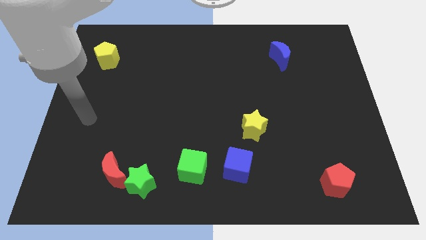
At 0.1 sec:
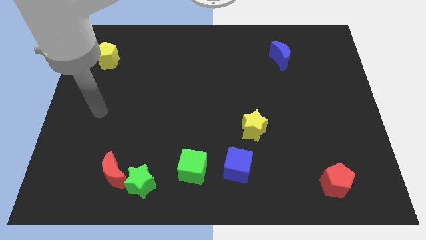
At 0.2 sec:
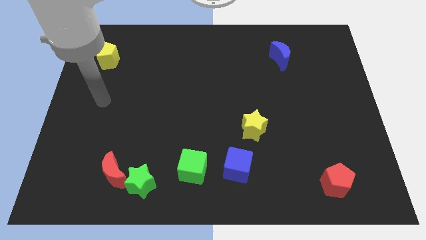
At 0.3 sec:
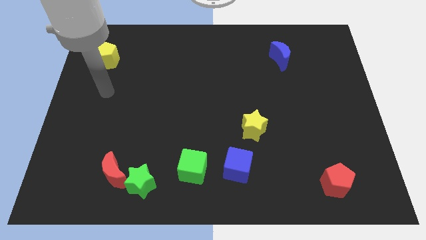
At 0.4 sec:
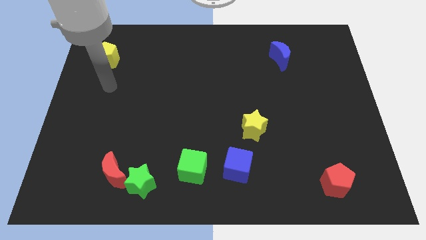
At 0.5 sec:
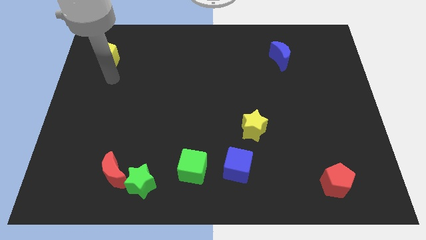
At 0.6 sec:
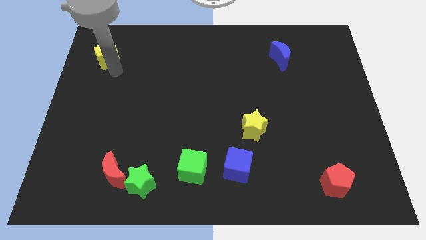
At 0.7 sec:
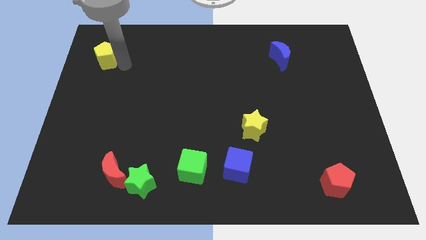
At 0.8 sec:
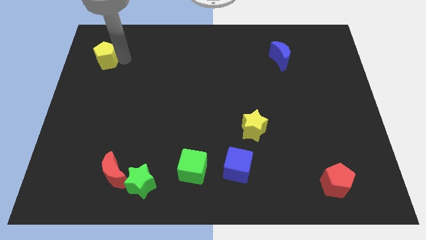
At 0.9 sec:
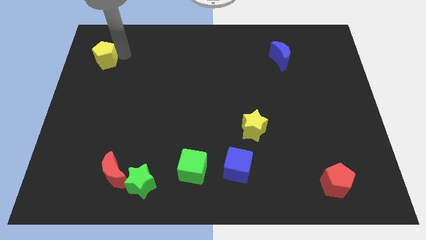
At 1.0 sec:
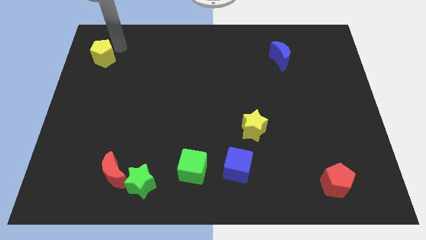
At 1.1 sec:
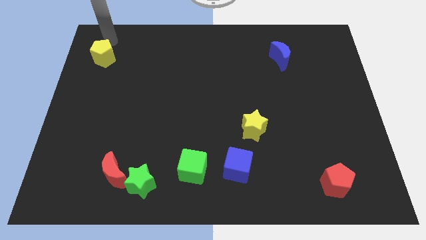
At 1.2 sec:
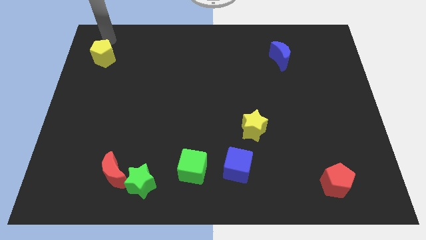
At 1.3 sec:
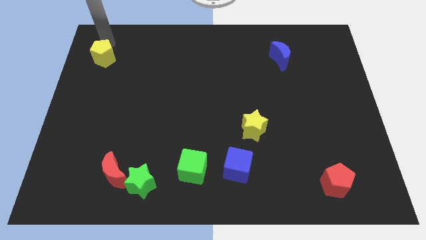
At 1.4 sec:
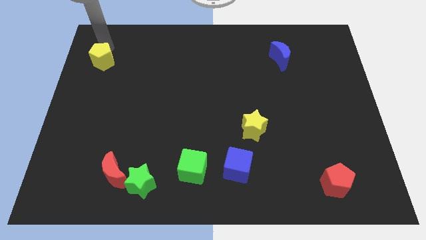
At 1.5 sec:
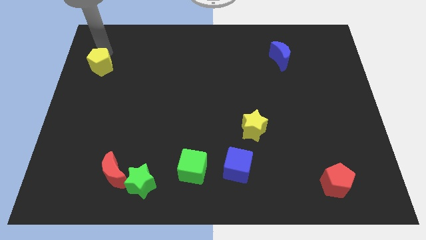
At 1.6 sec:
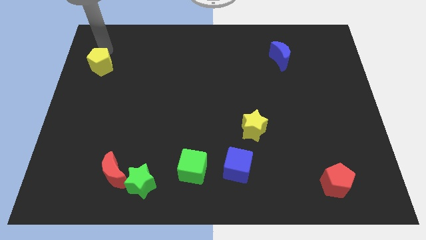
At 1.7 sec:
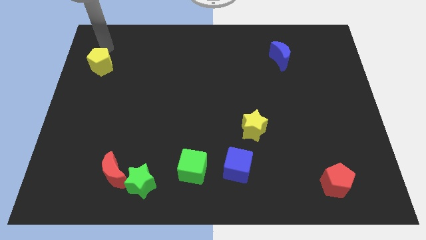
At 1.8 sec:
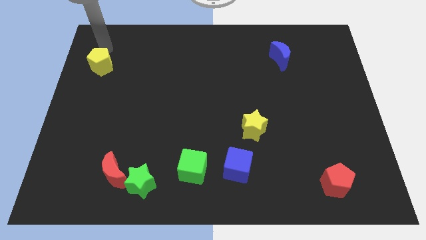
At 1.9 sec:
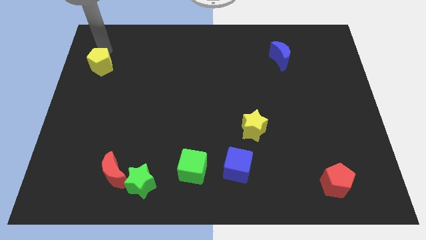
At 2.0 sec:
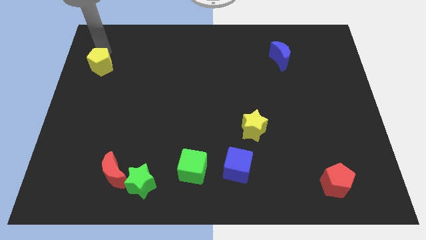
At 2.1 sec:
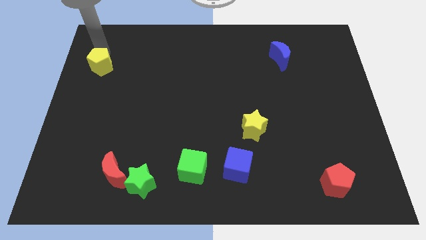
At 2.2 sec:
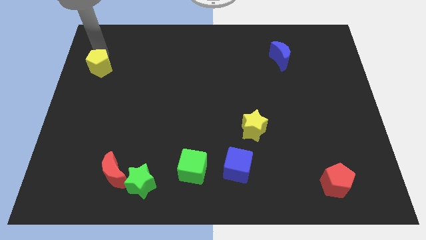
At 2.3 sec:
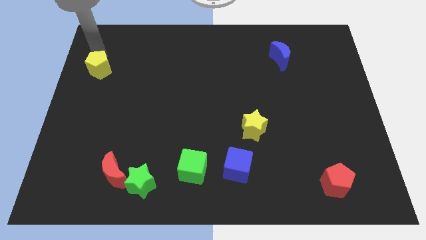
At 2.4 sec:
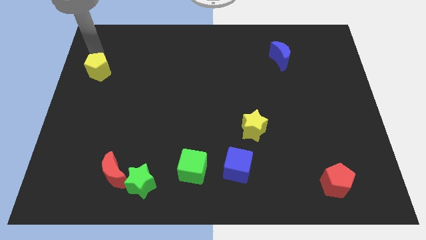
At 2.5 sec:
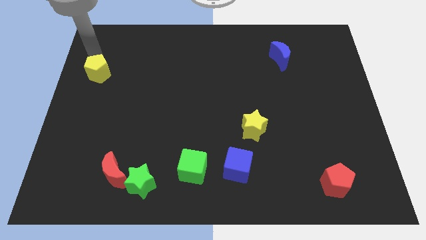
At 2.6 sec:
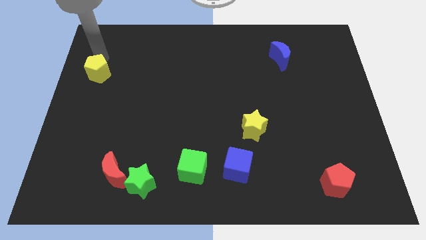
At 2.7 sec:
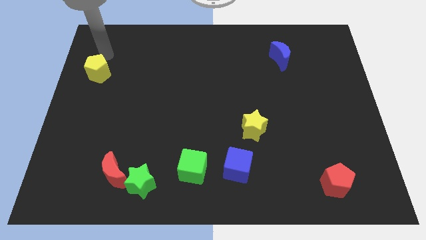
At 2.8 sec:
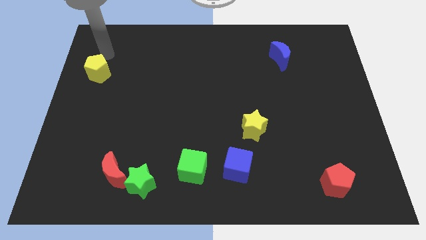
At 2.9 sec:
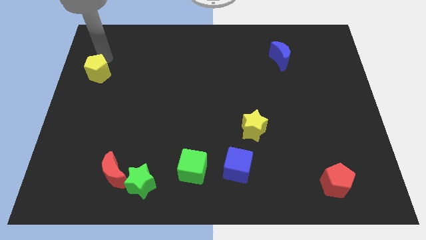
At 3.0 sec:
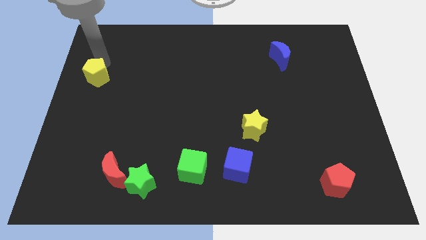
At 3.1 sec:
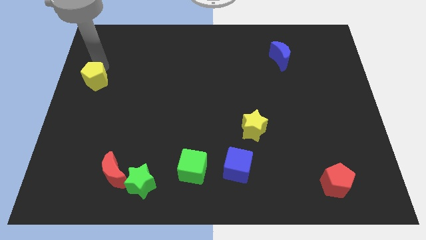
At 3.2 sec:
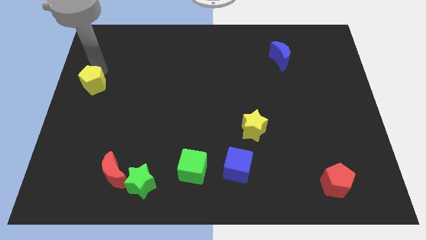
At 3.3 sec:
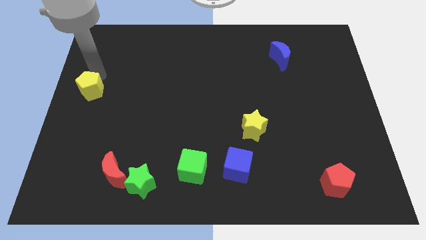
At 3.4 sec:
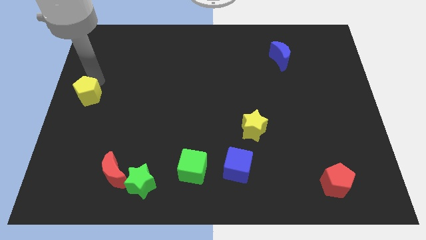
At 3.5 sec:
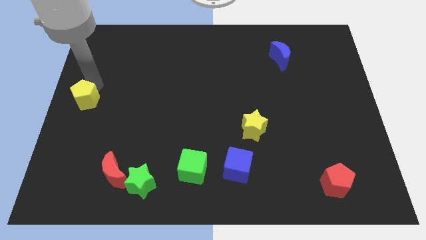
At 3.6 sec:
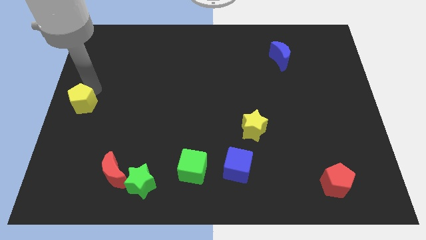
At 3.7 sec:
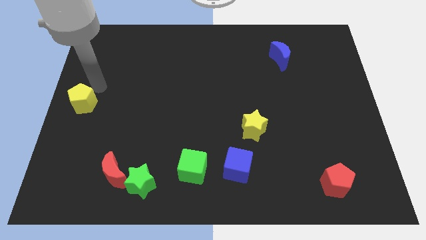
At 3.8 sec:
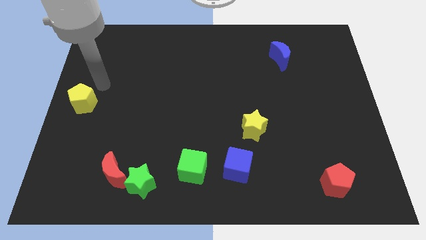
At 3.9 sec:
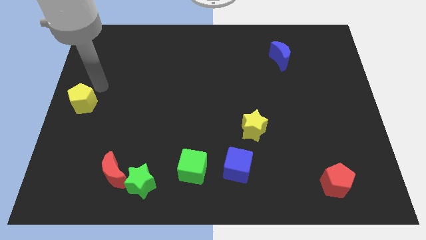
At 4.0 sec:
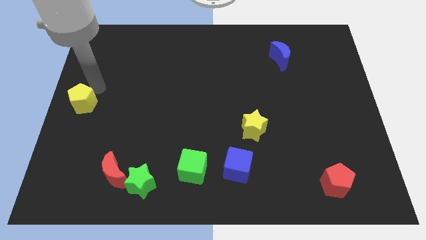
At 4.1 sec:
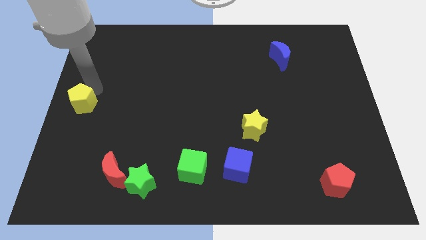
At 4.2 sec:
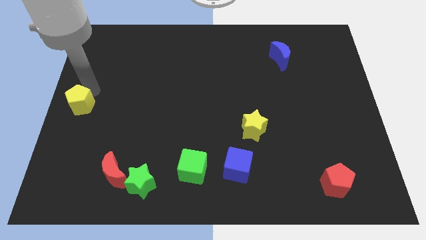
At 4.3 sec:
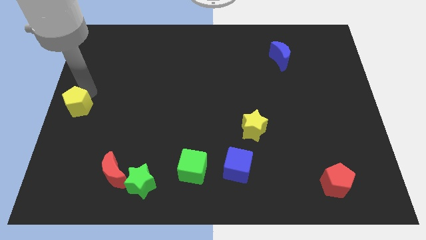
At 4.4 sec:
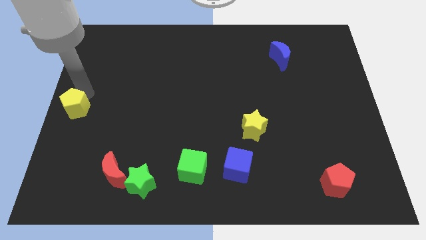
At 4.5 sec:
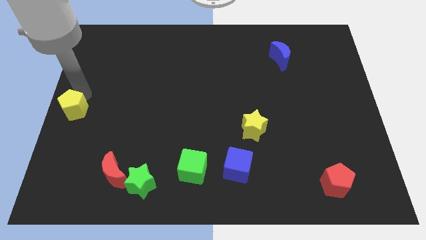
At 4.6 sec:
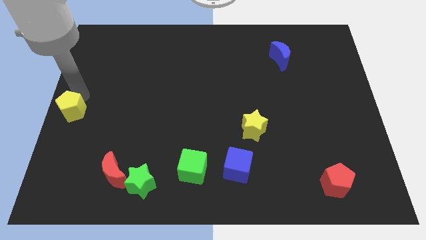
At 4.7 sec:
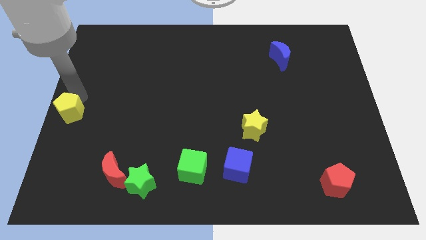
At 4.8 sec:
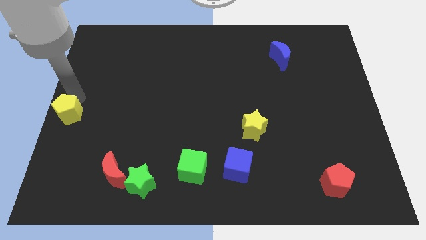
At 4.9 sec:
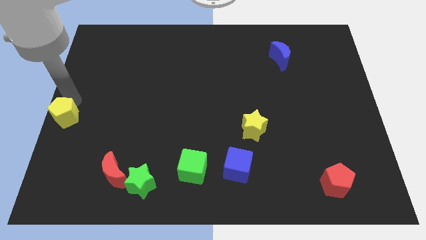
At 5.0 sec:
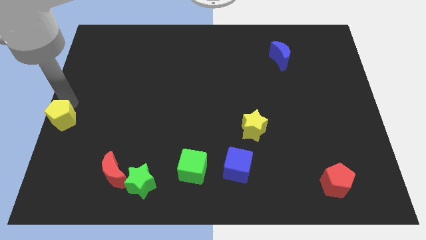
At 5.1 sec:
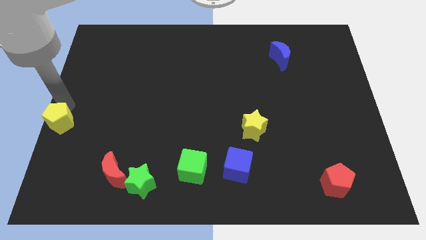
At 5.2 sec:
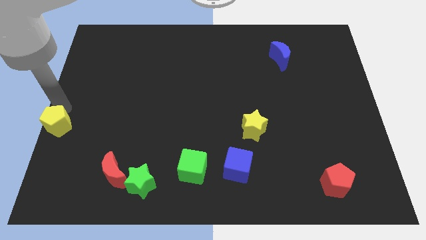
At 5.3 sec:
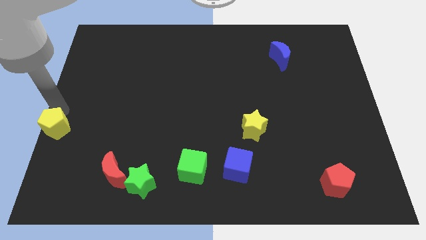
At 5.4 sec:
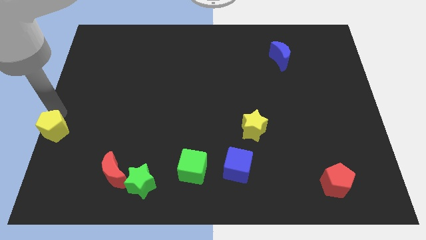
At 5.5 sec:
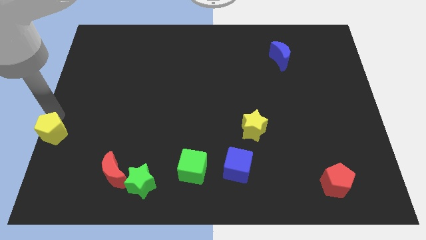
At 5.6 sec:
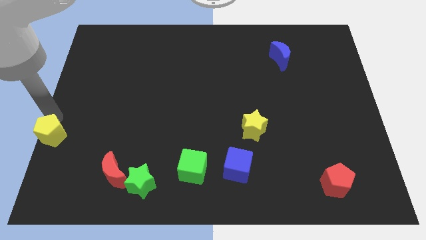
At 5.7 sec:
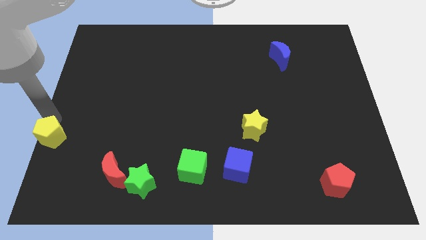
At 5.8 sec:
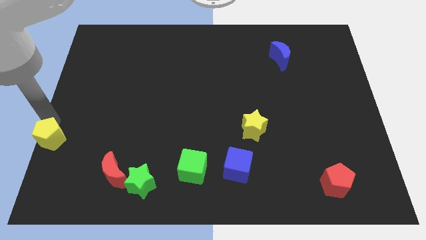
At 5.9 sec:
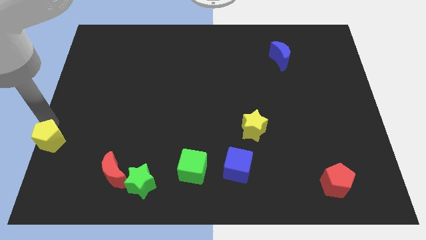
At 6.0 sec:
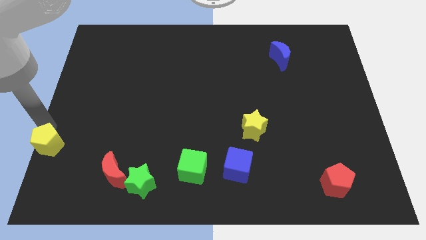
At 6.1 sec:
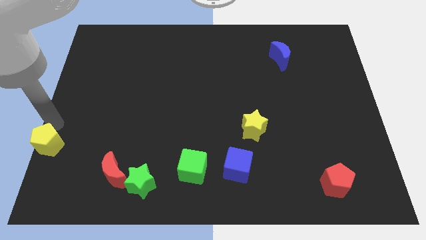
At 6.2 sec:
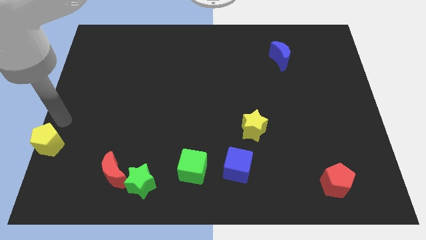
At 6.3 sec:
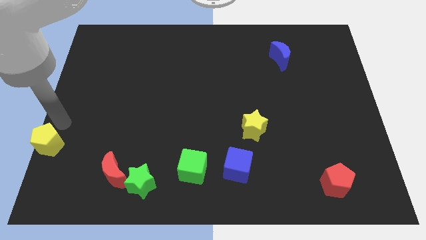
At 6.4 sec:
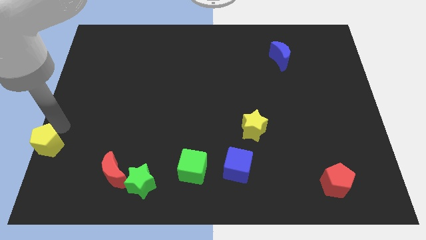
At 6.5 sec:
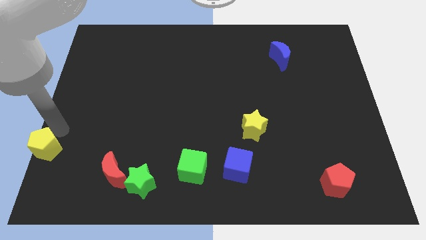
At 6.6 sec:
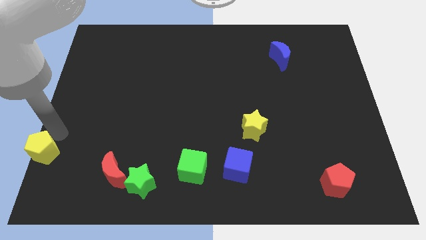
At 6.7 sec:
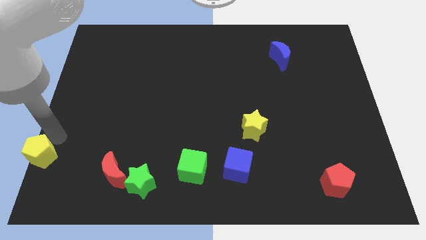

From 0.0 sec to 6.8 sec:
slide the yellow pentagon to the bottom left corner
